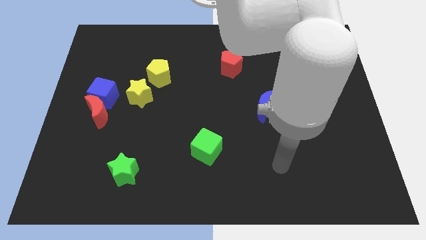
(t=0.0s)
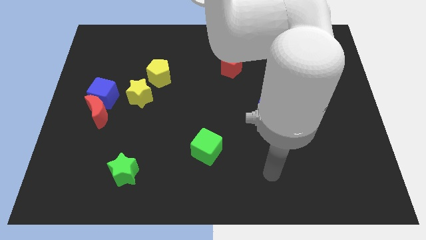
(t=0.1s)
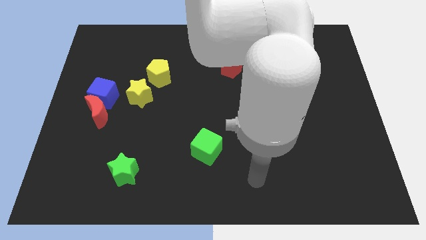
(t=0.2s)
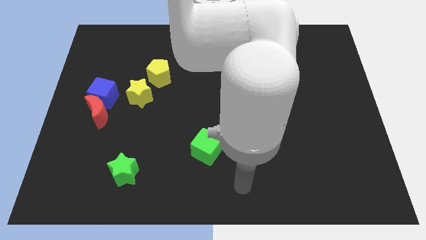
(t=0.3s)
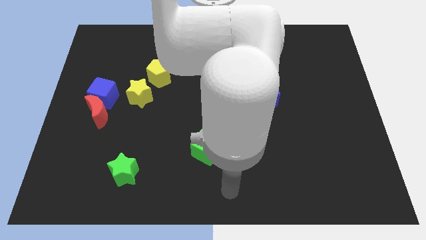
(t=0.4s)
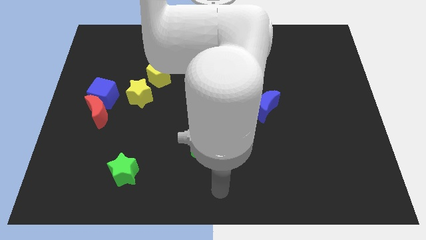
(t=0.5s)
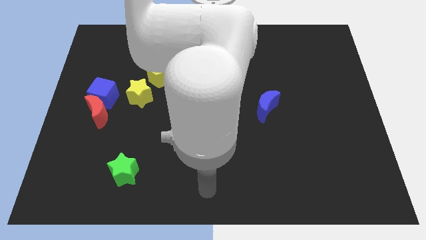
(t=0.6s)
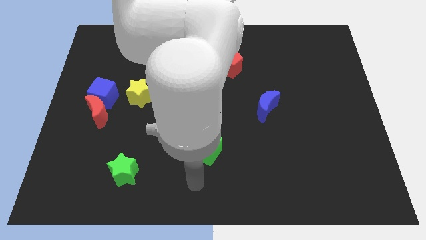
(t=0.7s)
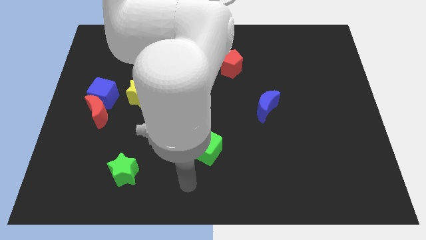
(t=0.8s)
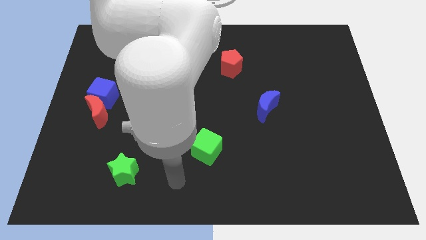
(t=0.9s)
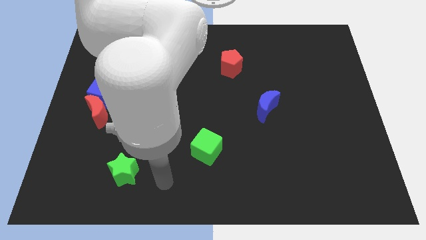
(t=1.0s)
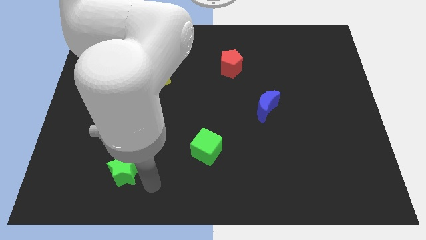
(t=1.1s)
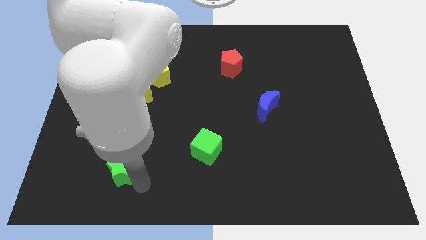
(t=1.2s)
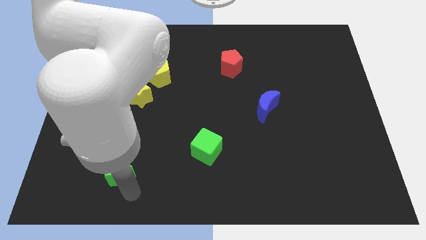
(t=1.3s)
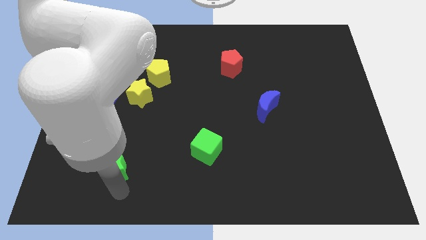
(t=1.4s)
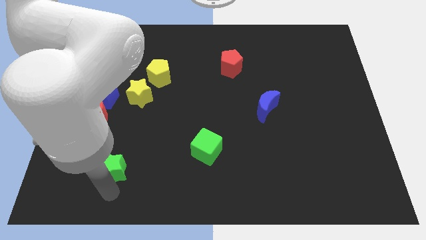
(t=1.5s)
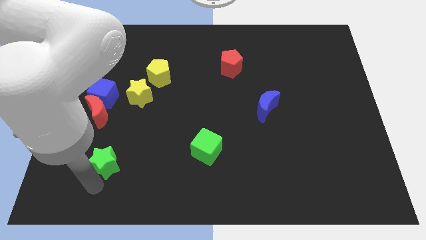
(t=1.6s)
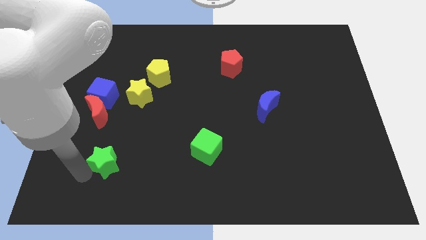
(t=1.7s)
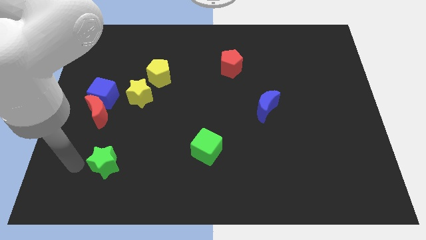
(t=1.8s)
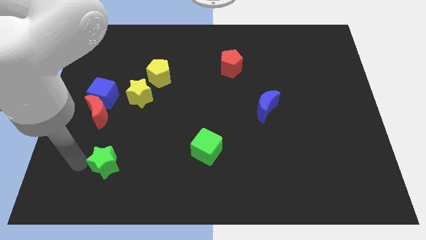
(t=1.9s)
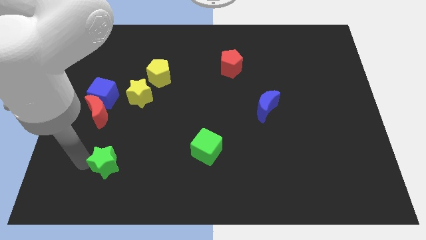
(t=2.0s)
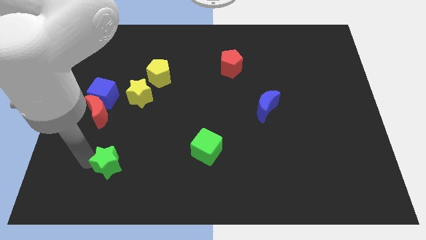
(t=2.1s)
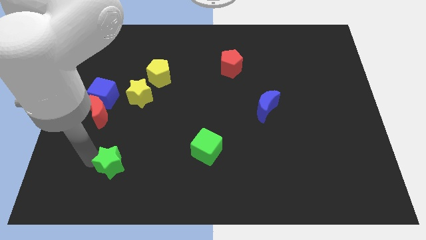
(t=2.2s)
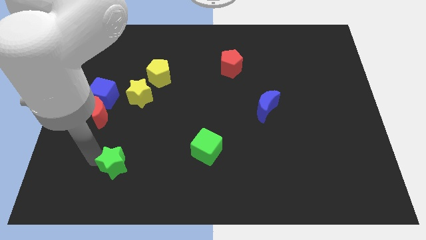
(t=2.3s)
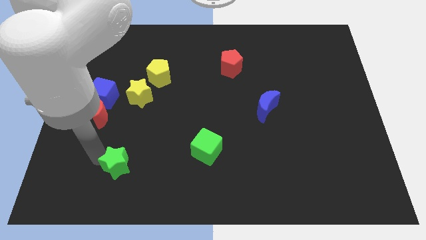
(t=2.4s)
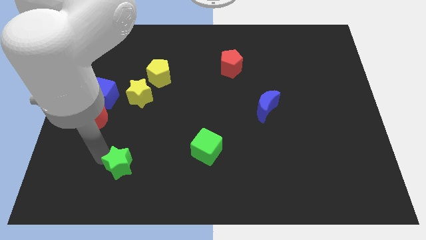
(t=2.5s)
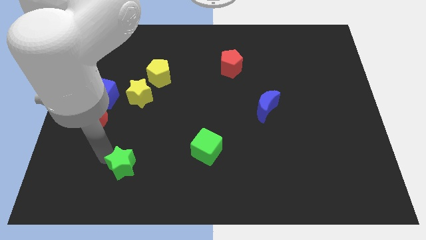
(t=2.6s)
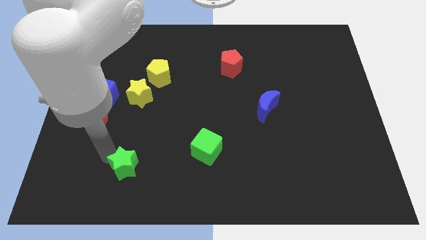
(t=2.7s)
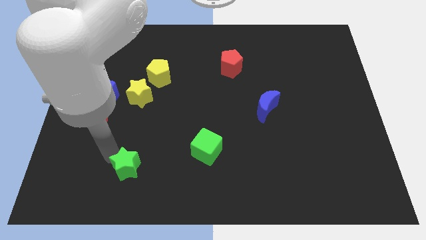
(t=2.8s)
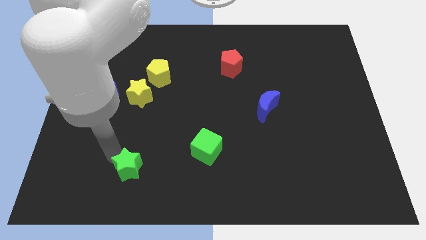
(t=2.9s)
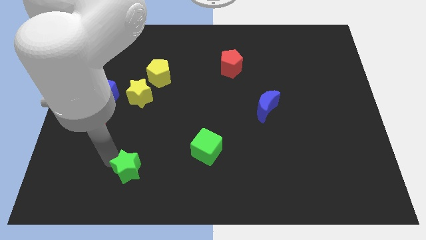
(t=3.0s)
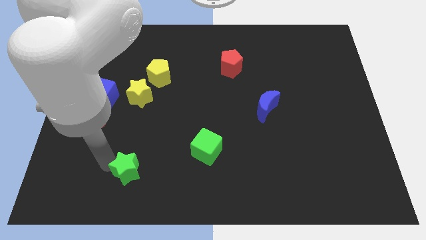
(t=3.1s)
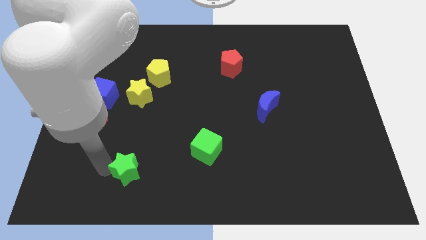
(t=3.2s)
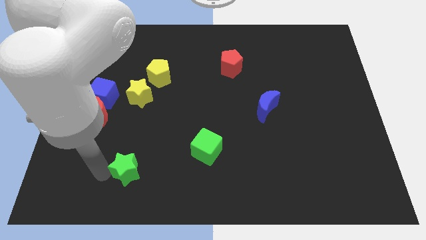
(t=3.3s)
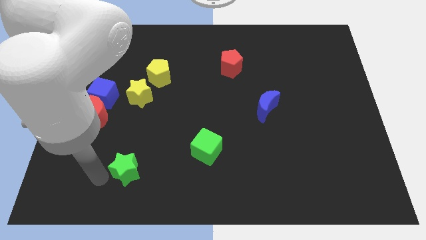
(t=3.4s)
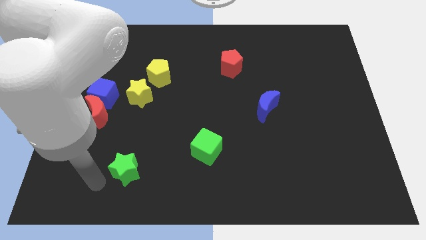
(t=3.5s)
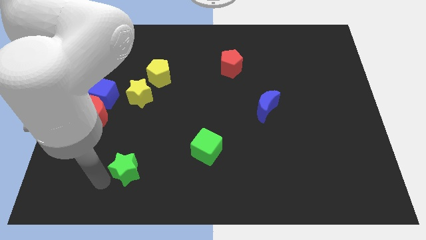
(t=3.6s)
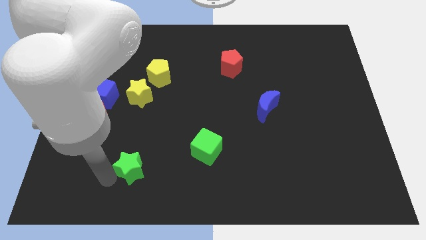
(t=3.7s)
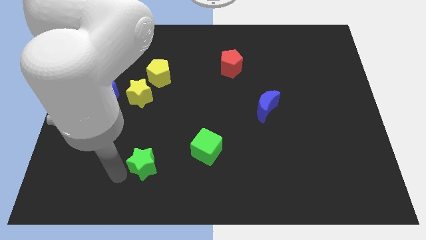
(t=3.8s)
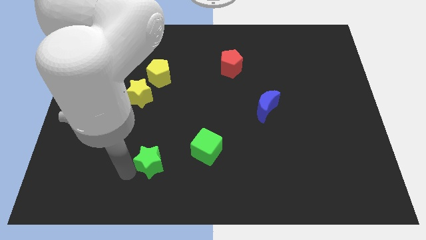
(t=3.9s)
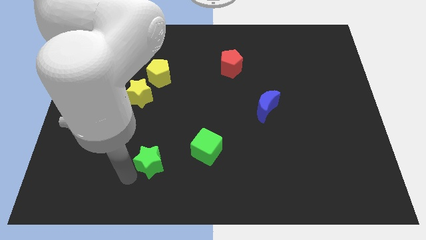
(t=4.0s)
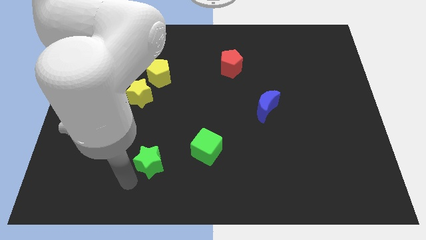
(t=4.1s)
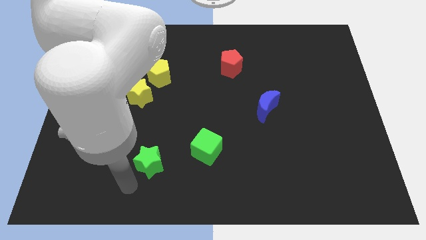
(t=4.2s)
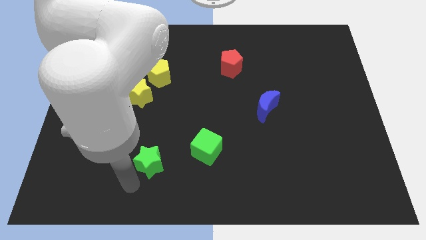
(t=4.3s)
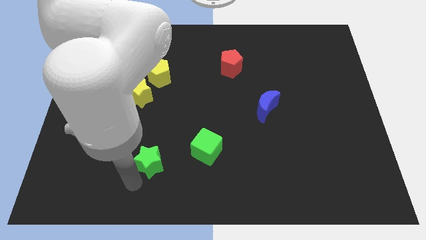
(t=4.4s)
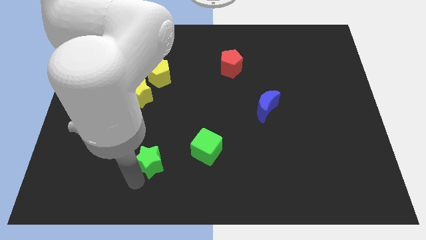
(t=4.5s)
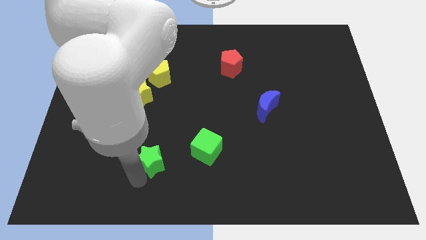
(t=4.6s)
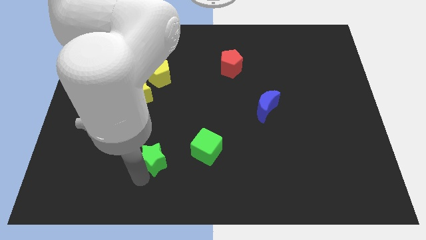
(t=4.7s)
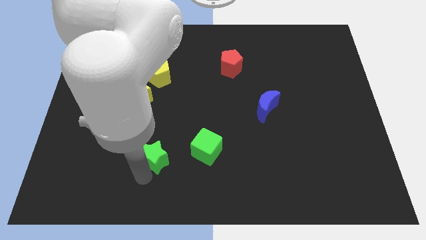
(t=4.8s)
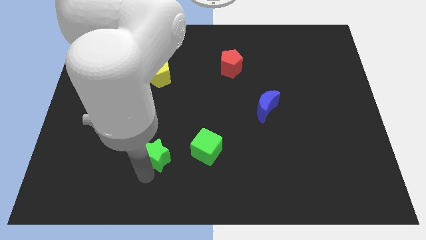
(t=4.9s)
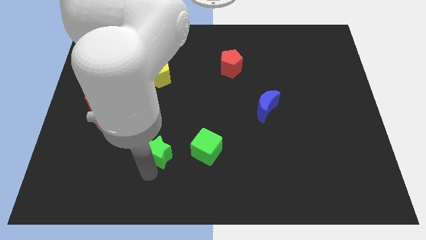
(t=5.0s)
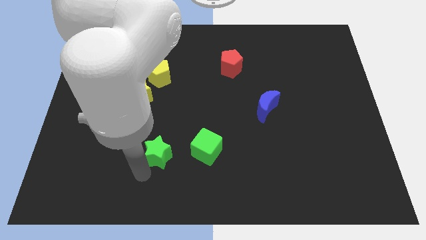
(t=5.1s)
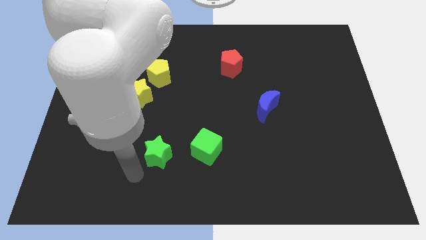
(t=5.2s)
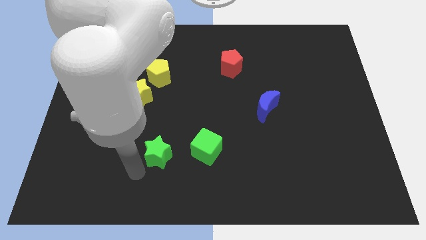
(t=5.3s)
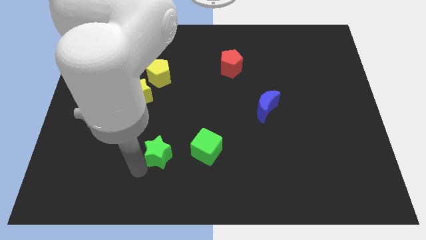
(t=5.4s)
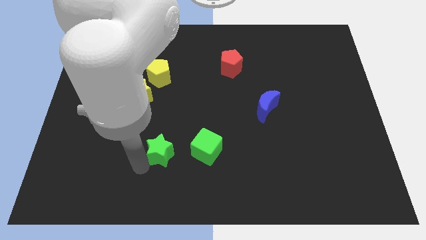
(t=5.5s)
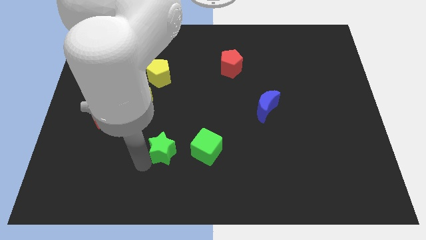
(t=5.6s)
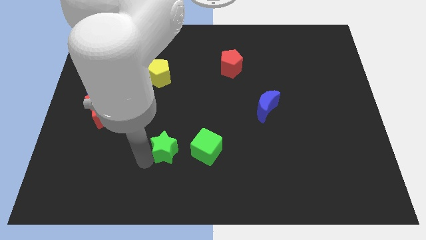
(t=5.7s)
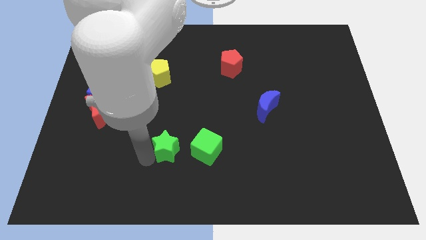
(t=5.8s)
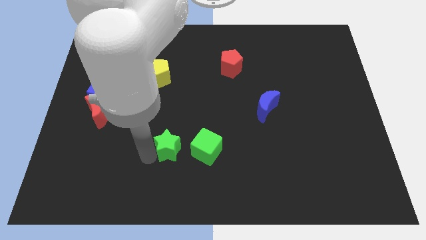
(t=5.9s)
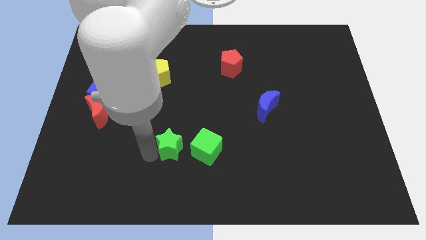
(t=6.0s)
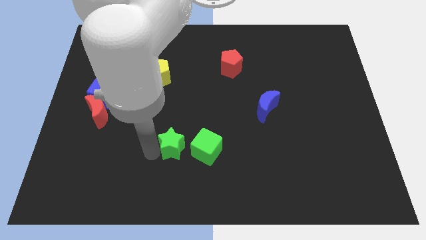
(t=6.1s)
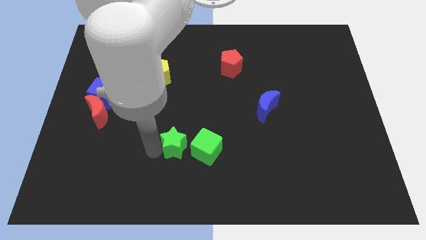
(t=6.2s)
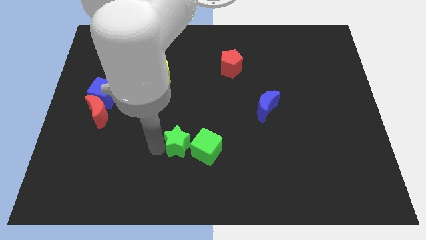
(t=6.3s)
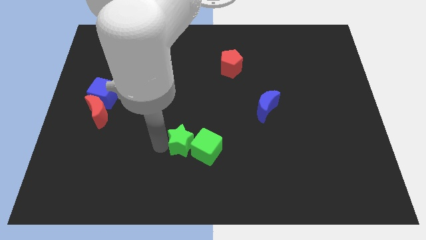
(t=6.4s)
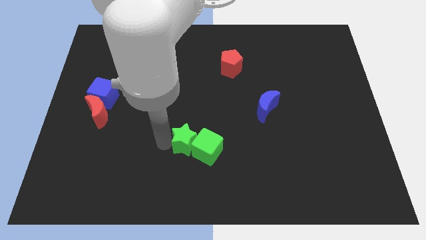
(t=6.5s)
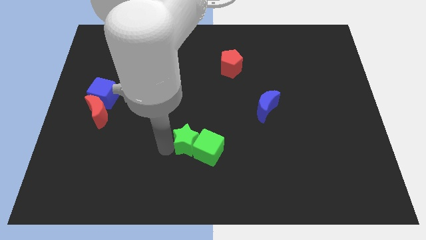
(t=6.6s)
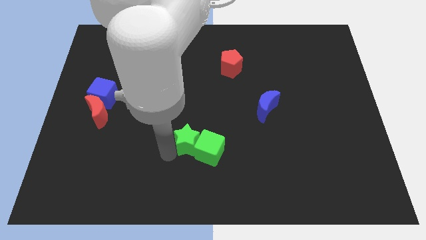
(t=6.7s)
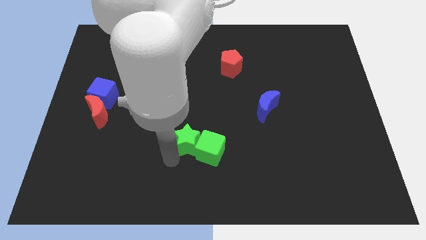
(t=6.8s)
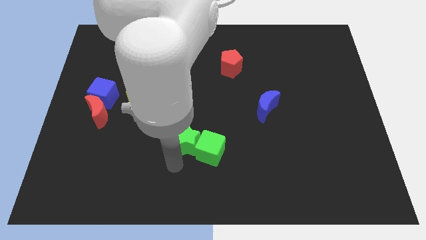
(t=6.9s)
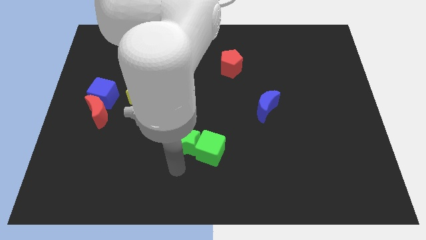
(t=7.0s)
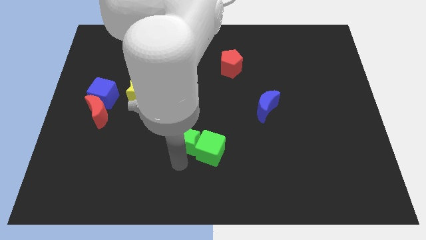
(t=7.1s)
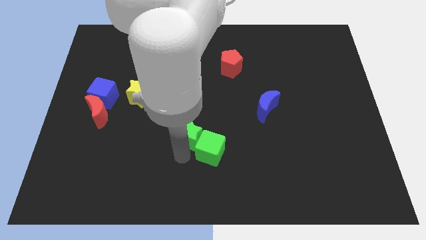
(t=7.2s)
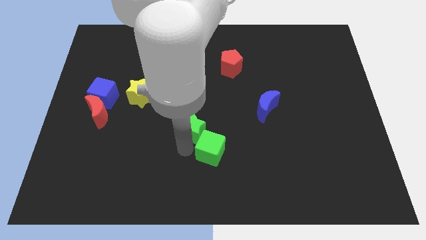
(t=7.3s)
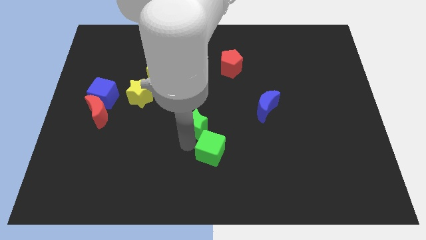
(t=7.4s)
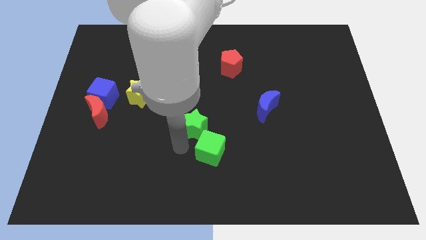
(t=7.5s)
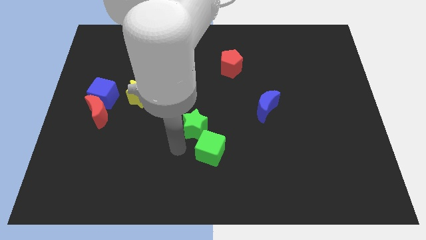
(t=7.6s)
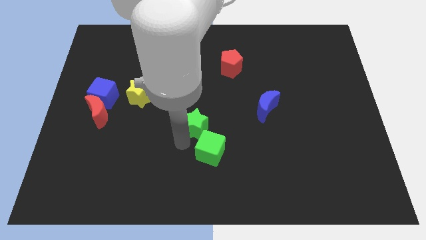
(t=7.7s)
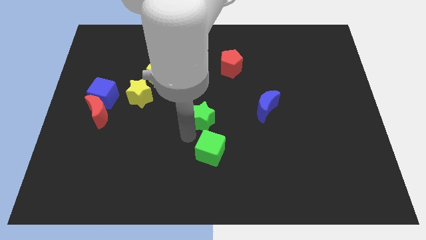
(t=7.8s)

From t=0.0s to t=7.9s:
push the green star diagonally upwards and to the right

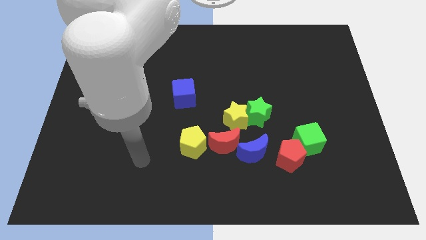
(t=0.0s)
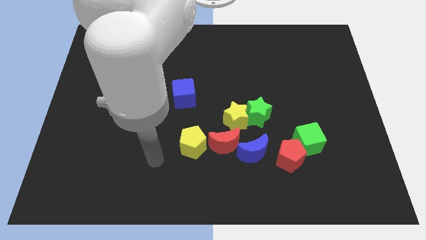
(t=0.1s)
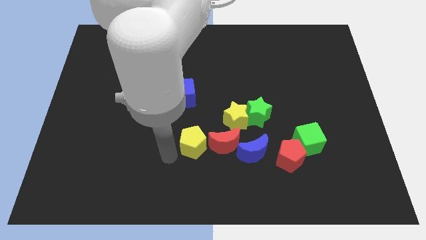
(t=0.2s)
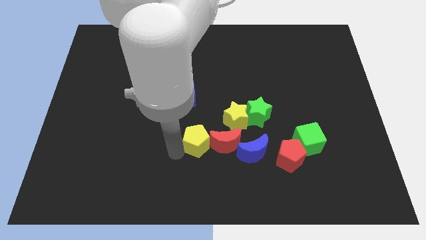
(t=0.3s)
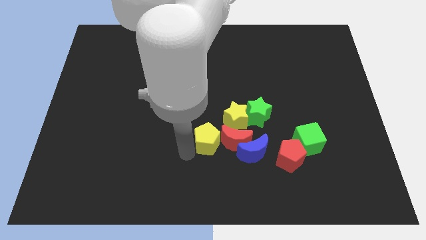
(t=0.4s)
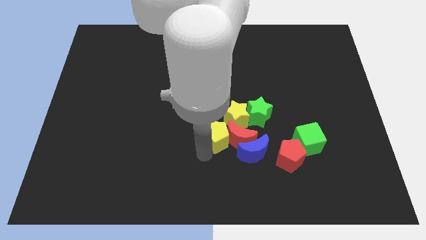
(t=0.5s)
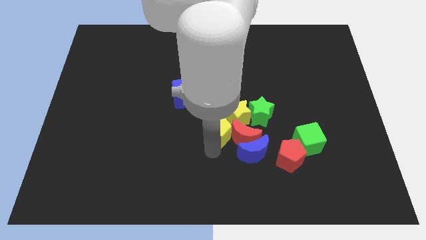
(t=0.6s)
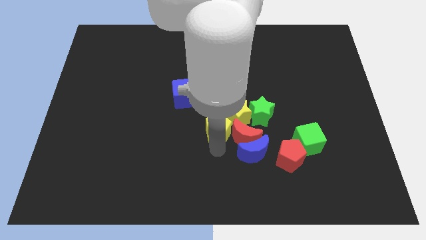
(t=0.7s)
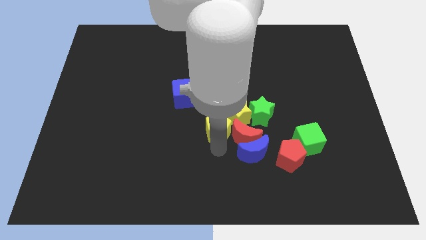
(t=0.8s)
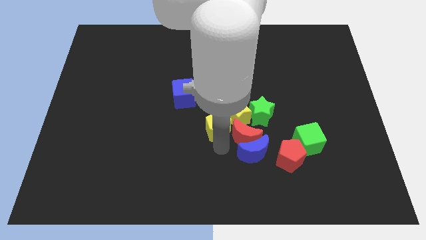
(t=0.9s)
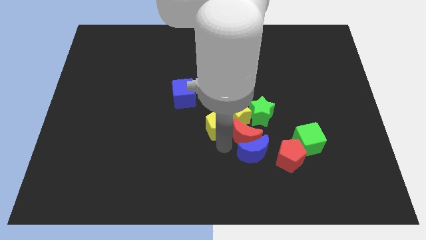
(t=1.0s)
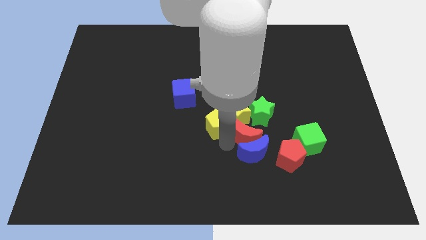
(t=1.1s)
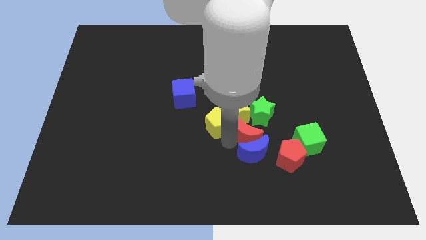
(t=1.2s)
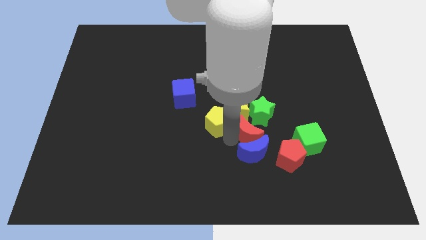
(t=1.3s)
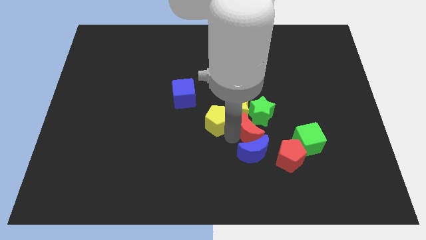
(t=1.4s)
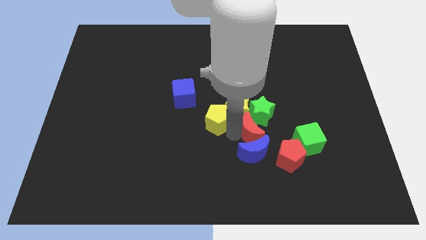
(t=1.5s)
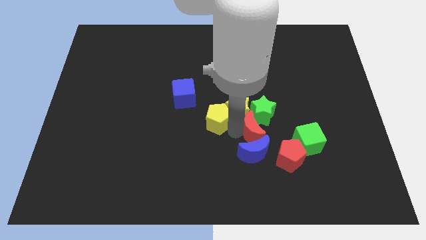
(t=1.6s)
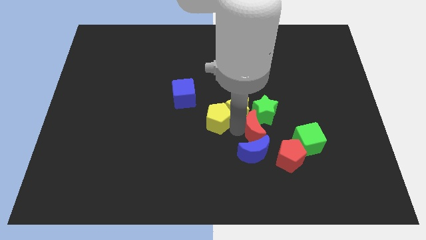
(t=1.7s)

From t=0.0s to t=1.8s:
move the red moon up and then right a little bit
